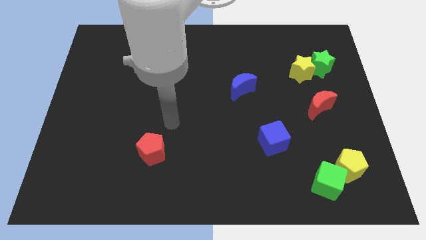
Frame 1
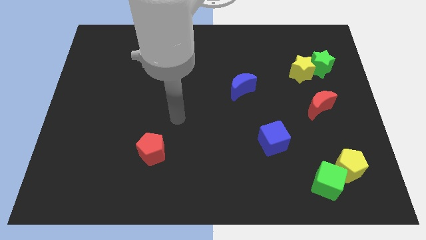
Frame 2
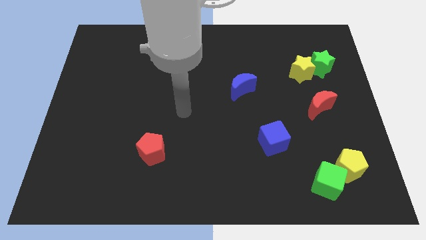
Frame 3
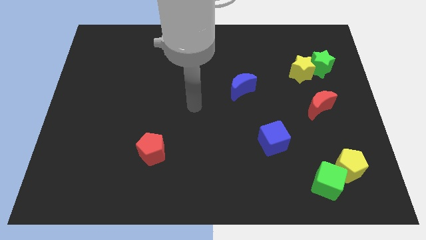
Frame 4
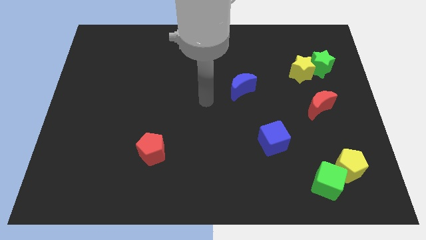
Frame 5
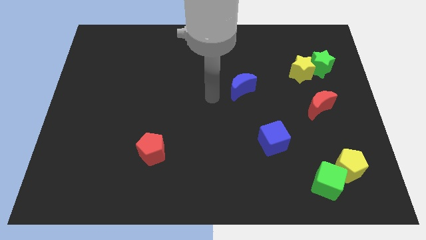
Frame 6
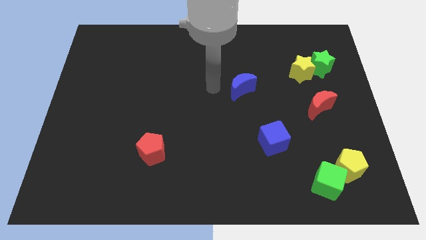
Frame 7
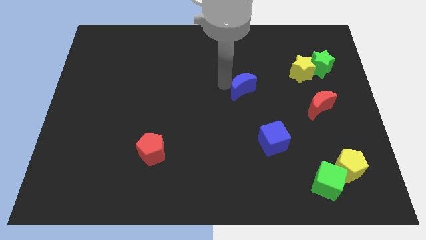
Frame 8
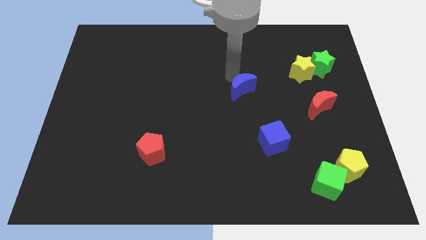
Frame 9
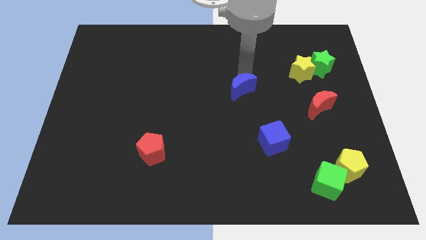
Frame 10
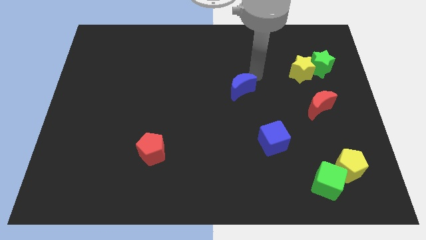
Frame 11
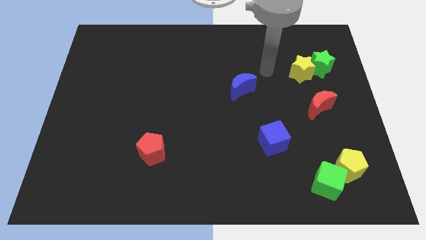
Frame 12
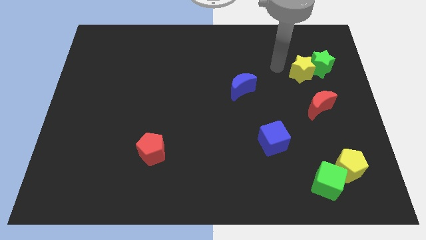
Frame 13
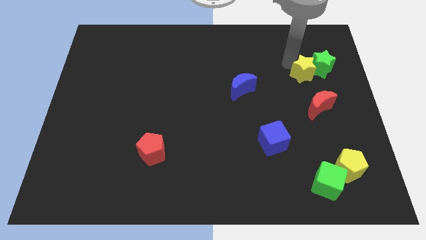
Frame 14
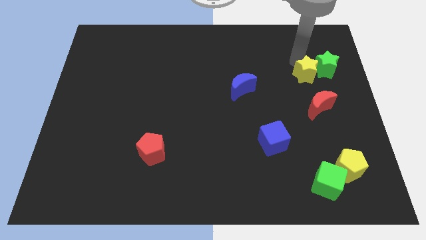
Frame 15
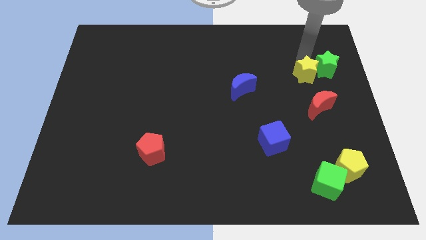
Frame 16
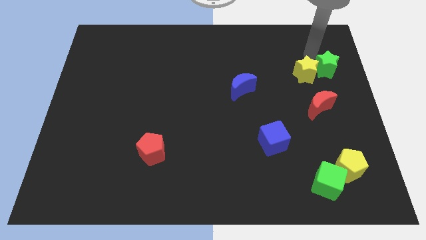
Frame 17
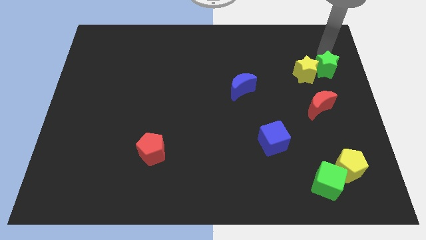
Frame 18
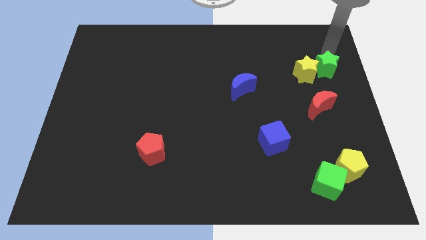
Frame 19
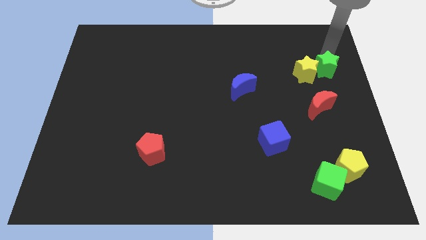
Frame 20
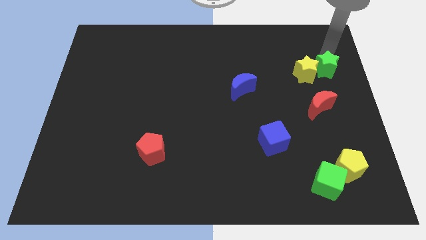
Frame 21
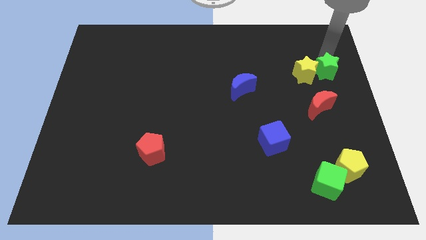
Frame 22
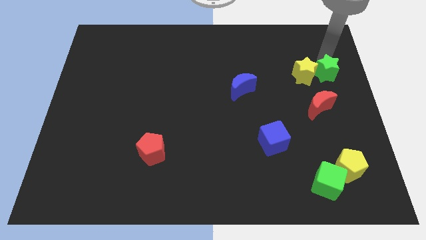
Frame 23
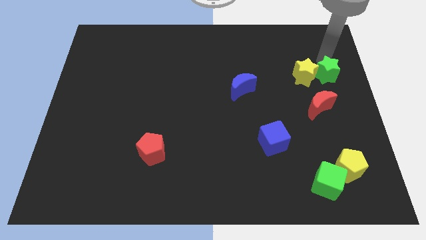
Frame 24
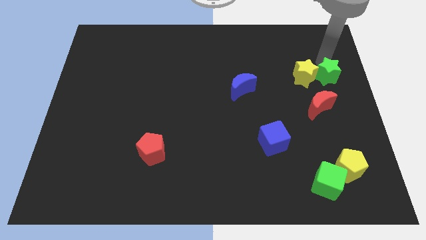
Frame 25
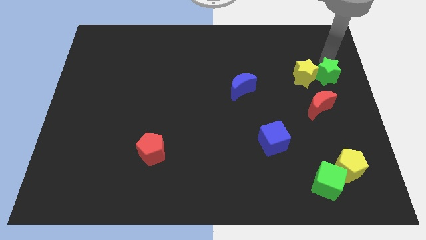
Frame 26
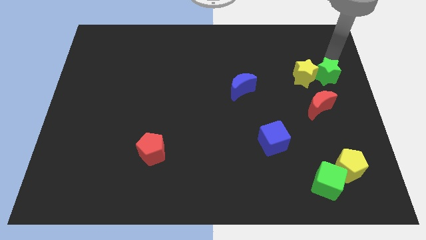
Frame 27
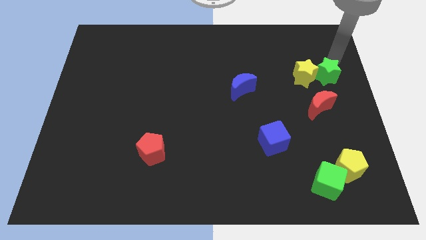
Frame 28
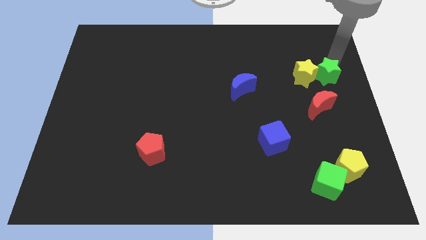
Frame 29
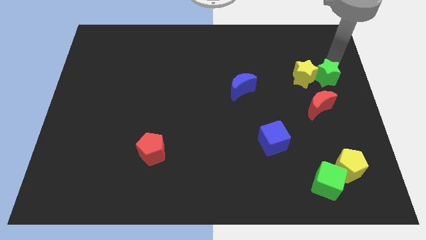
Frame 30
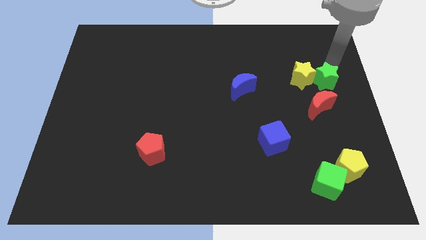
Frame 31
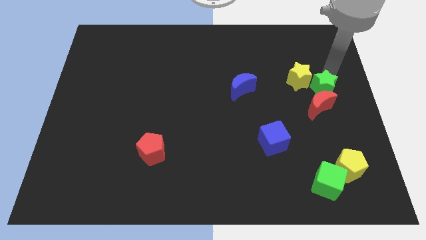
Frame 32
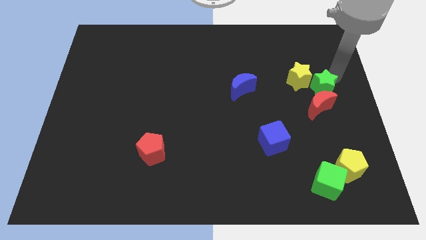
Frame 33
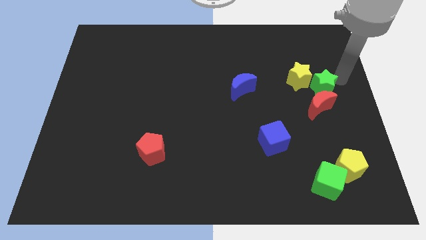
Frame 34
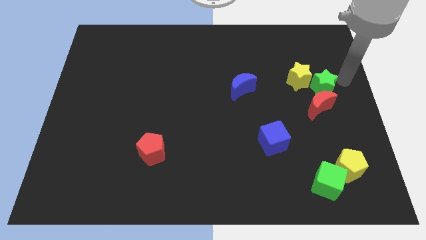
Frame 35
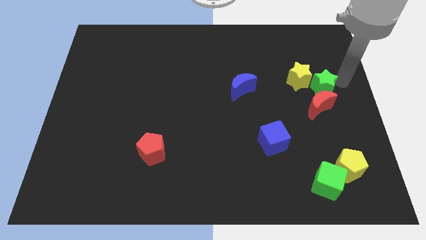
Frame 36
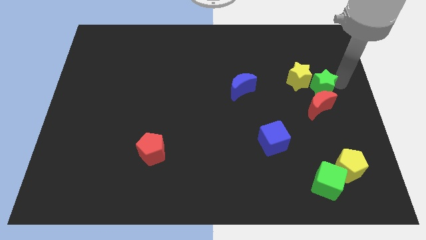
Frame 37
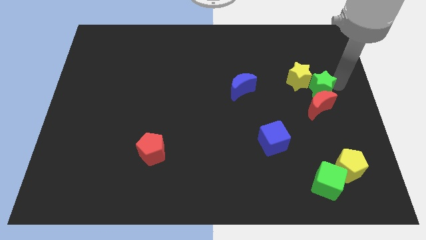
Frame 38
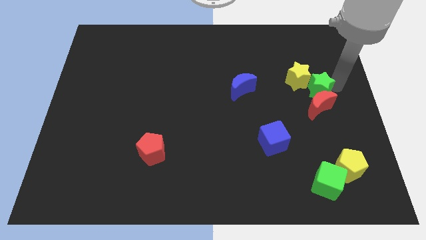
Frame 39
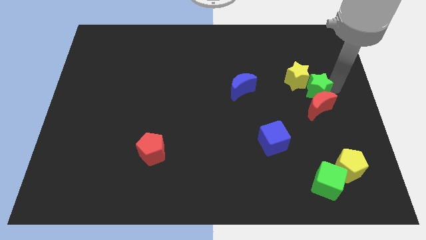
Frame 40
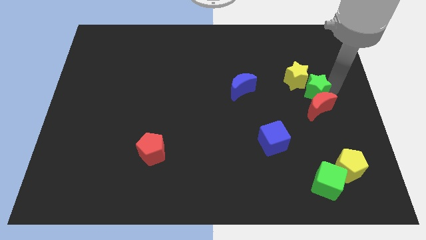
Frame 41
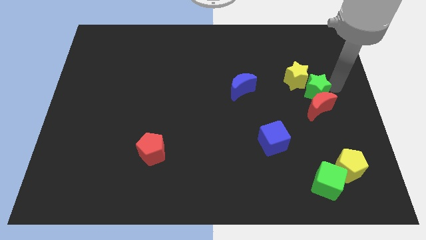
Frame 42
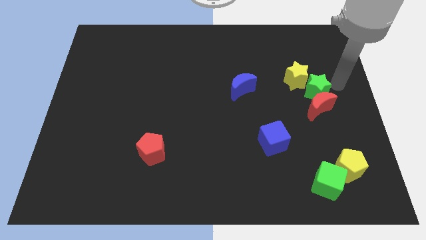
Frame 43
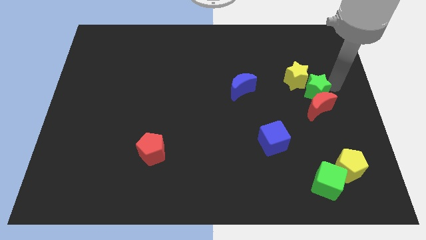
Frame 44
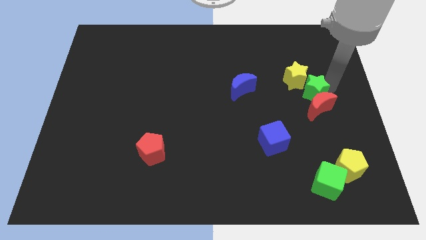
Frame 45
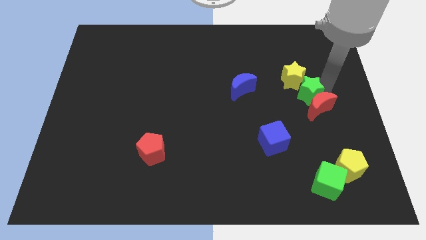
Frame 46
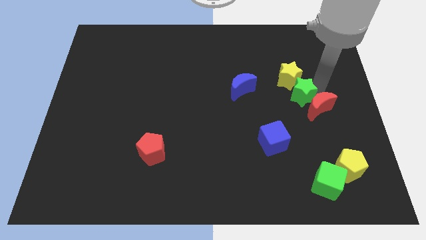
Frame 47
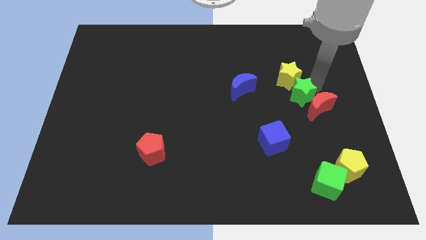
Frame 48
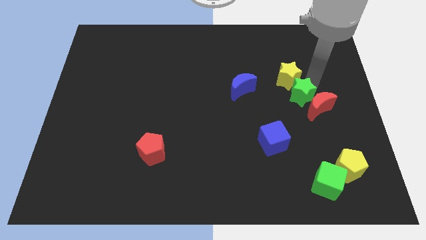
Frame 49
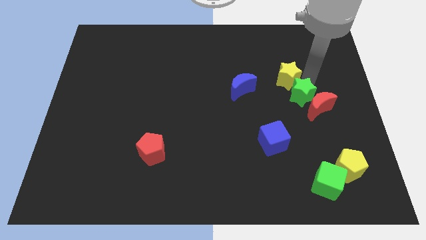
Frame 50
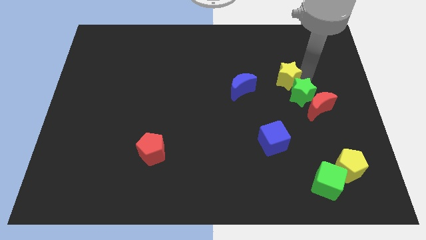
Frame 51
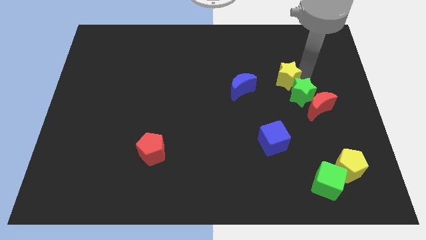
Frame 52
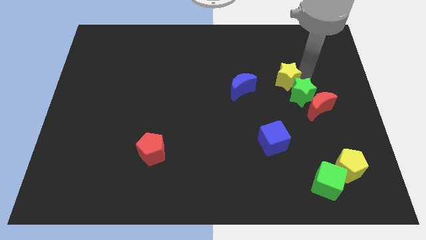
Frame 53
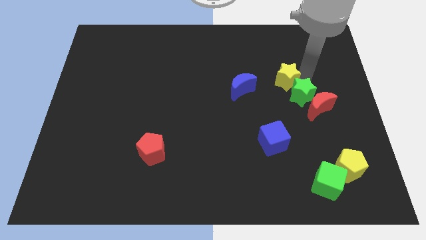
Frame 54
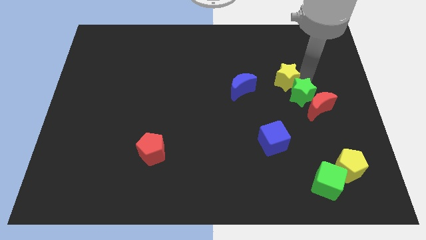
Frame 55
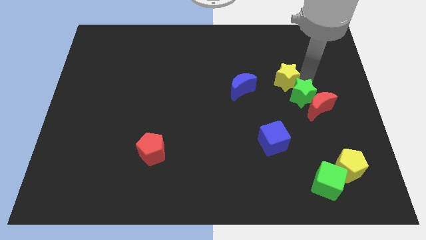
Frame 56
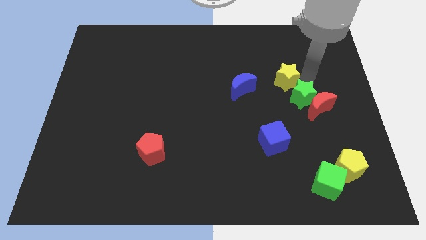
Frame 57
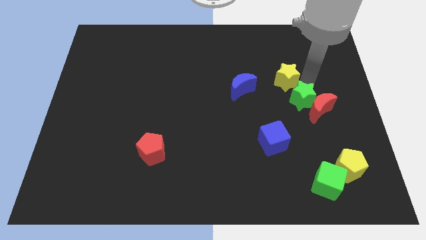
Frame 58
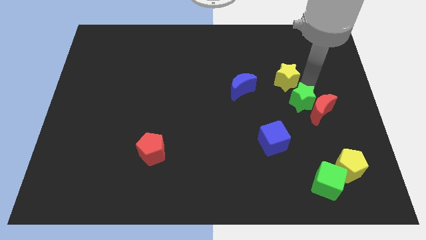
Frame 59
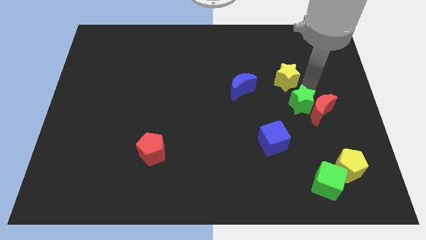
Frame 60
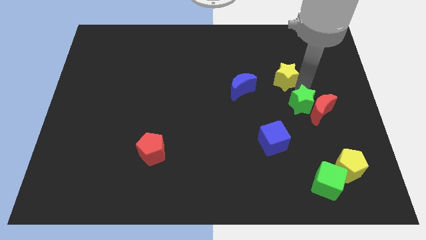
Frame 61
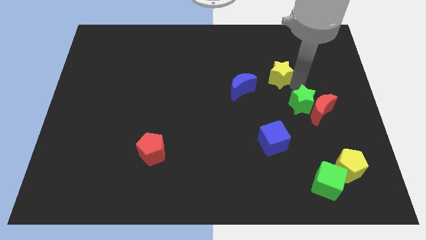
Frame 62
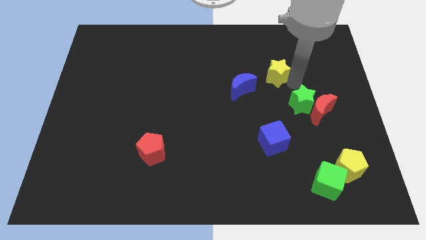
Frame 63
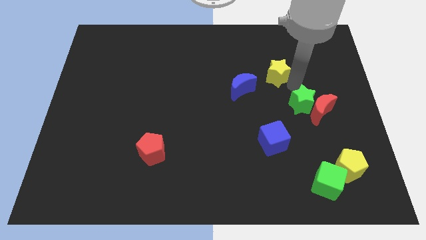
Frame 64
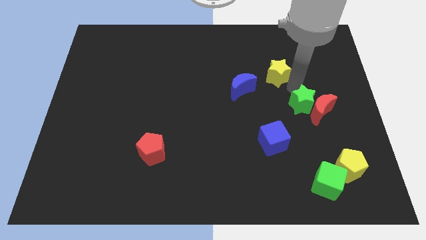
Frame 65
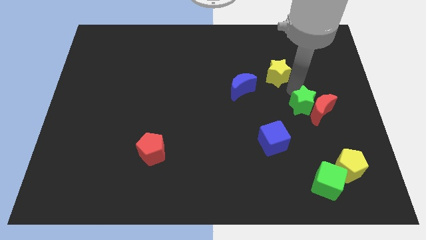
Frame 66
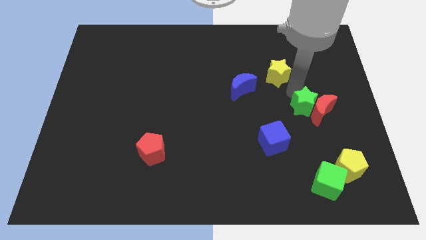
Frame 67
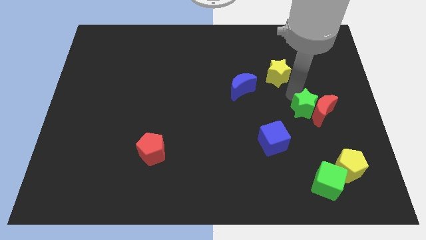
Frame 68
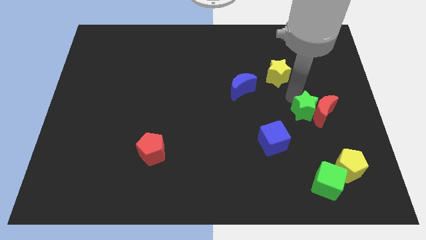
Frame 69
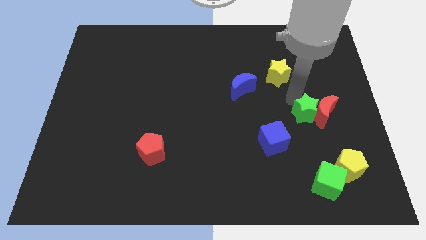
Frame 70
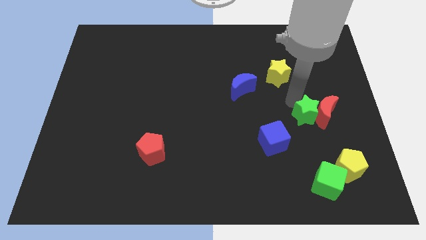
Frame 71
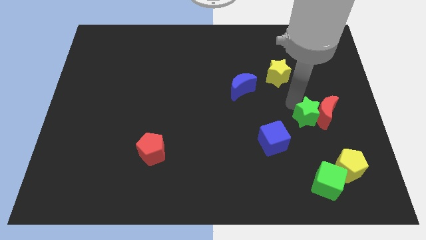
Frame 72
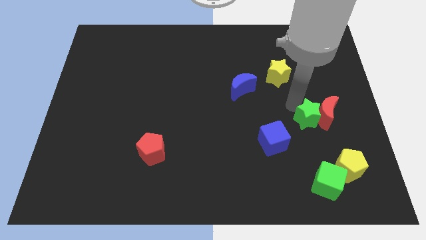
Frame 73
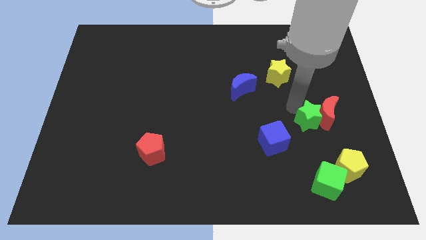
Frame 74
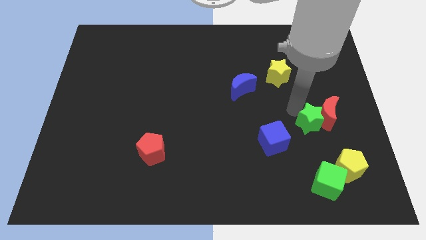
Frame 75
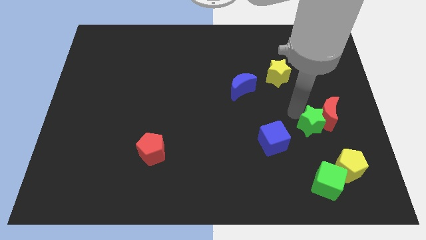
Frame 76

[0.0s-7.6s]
slide the green star right of the blue cube
